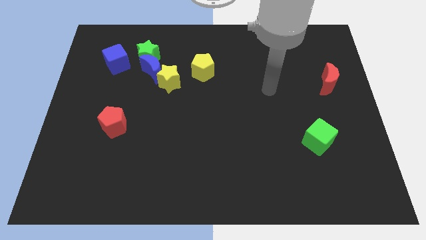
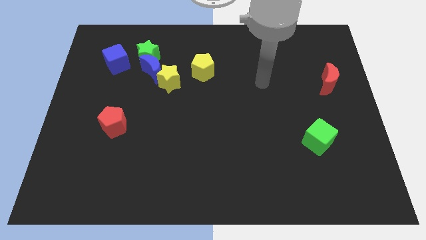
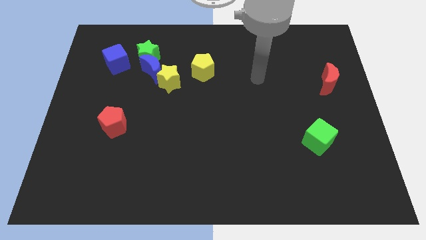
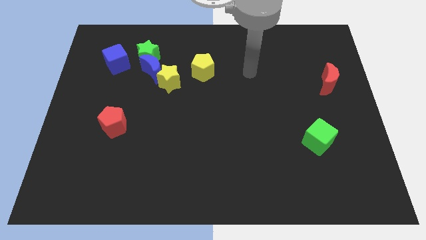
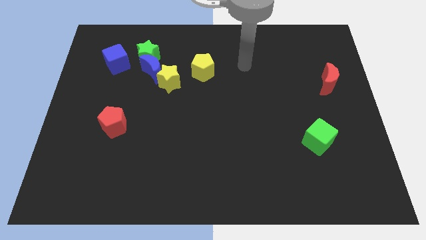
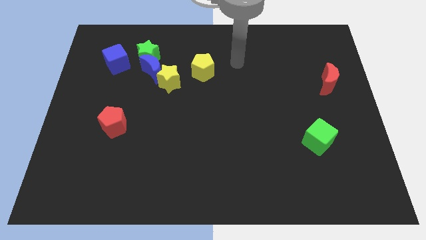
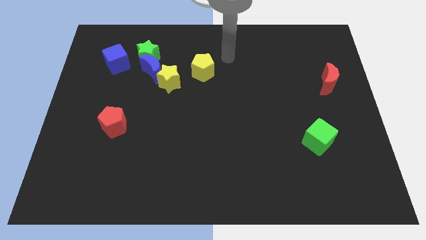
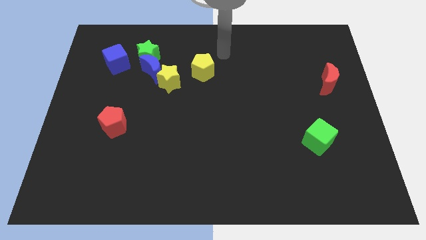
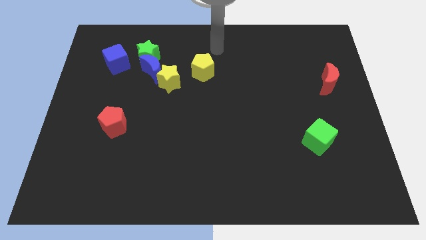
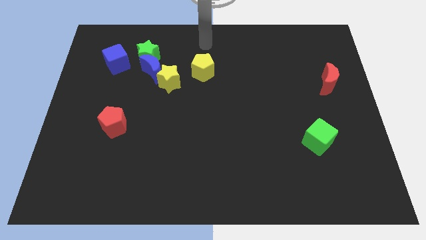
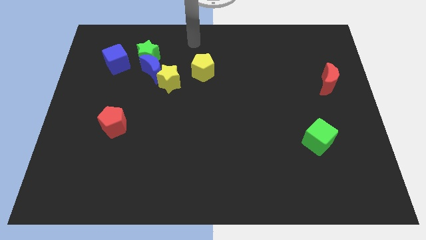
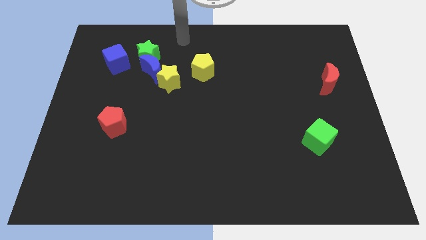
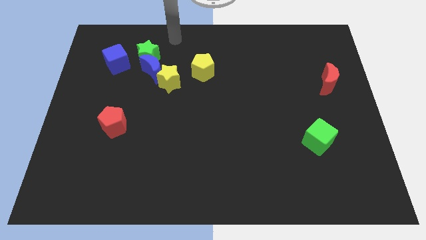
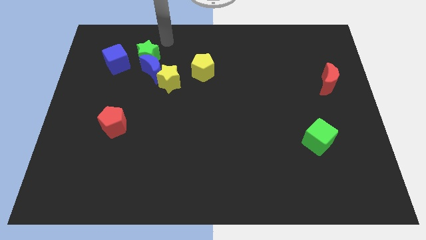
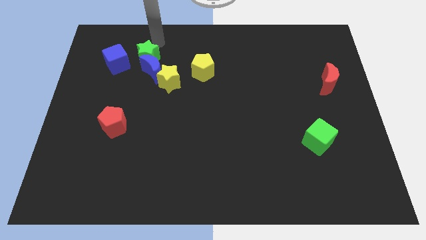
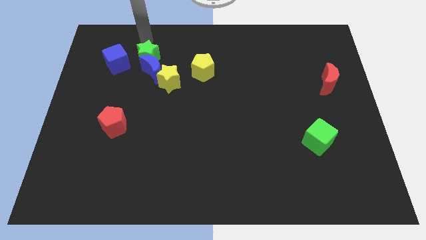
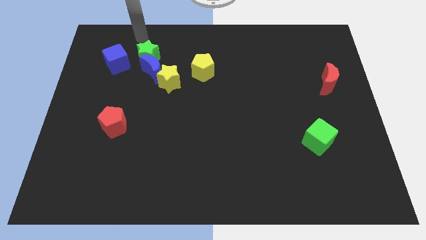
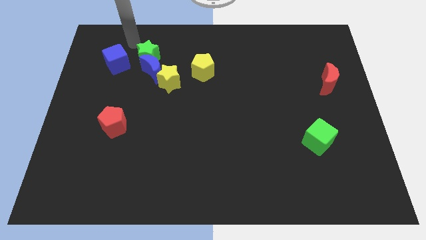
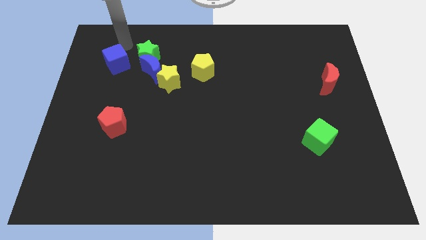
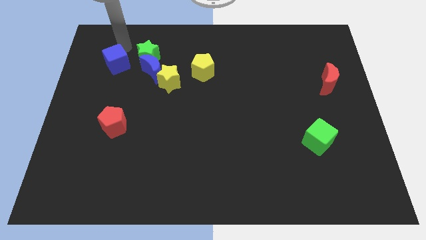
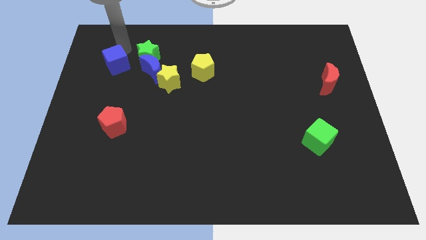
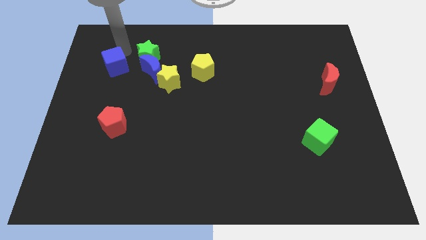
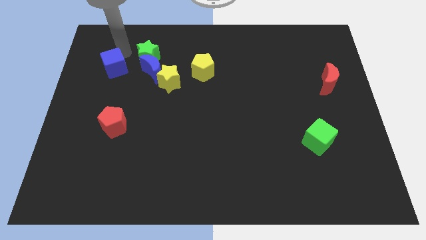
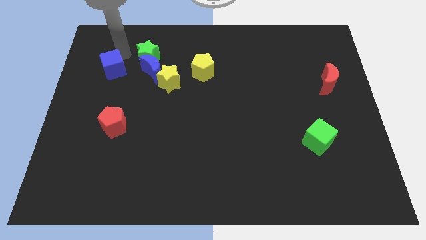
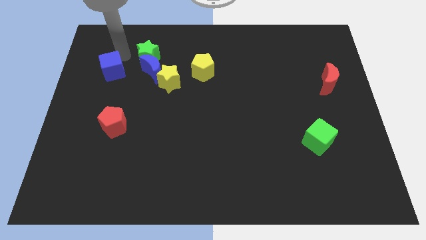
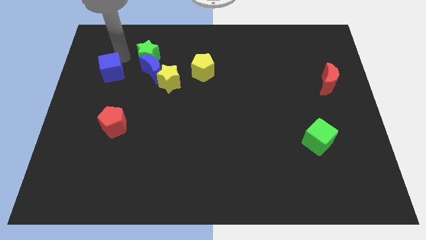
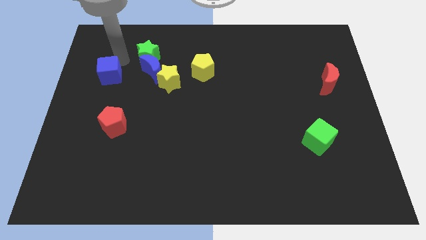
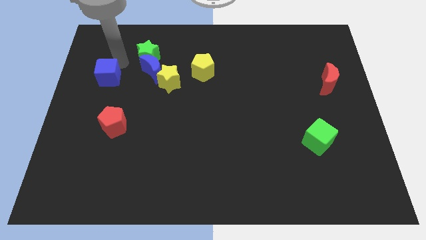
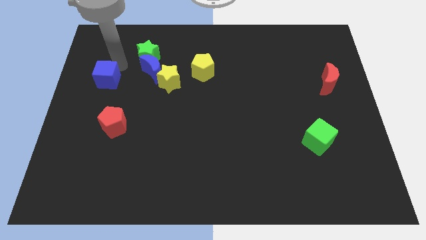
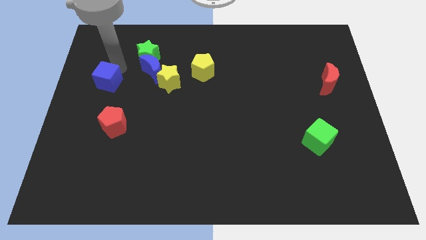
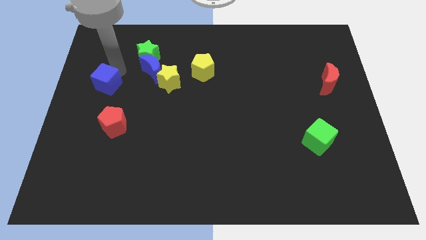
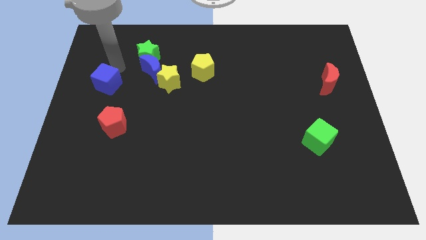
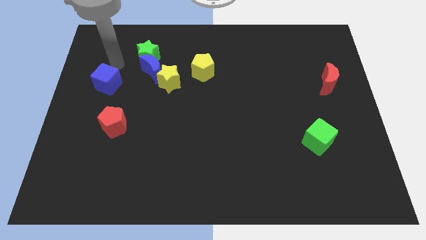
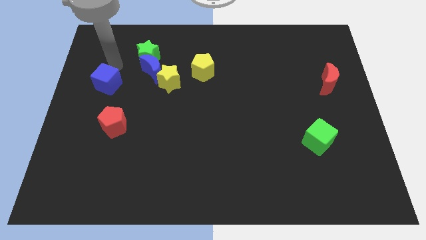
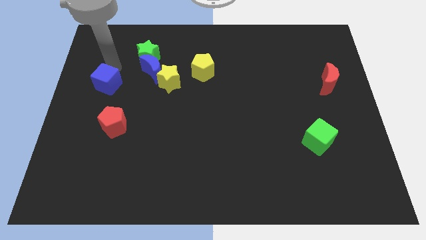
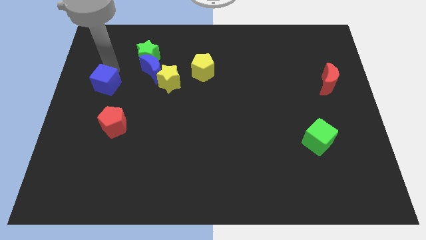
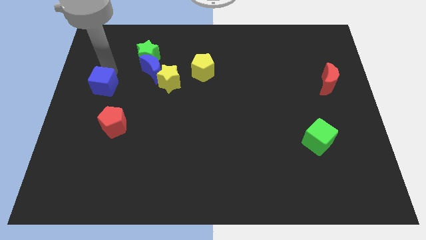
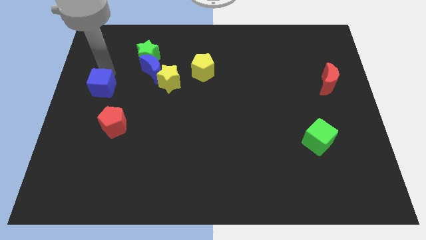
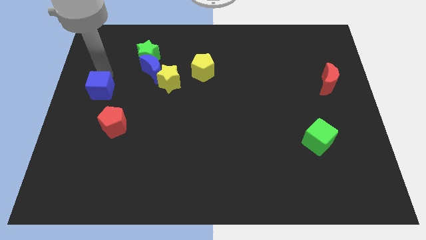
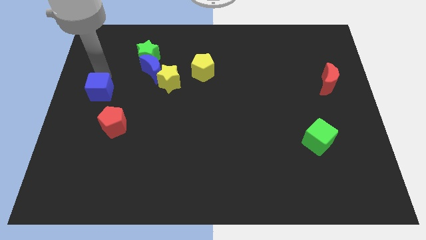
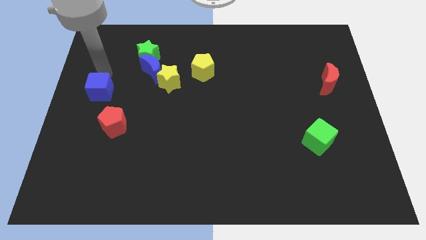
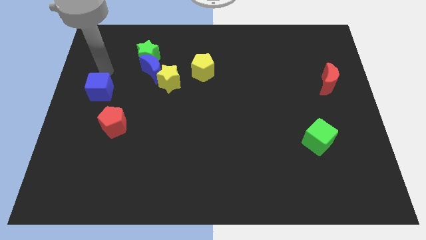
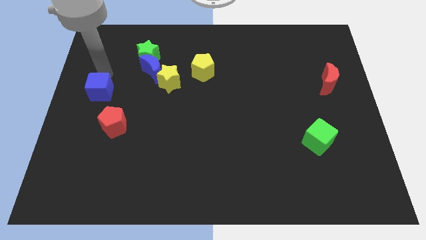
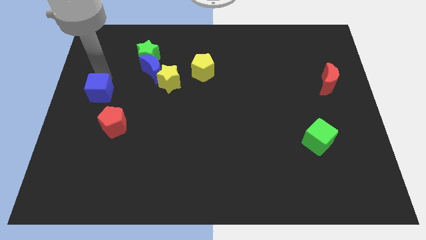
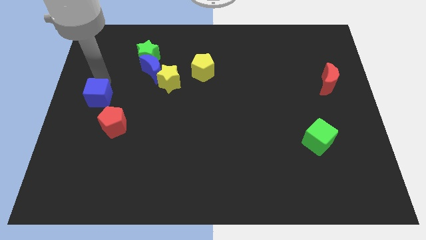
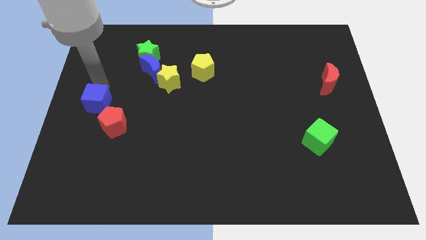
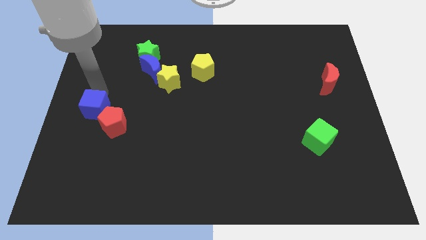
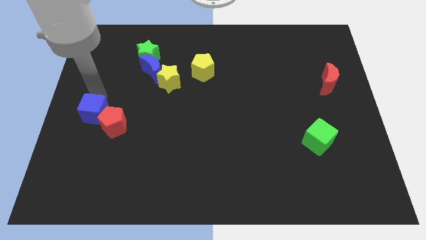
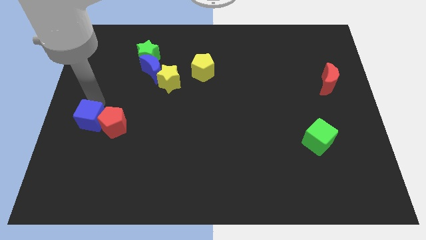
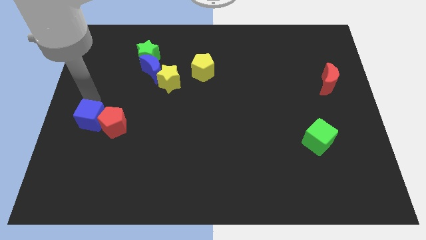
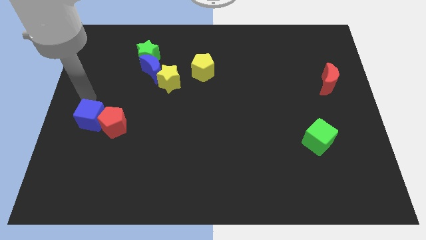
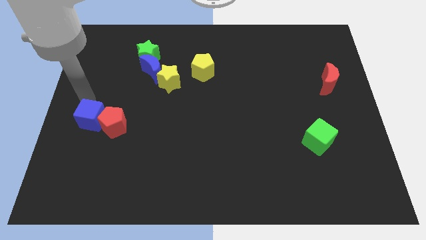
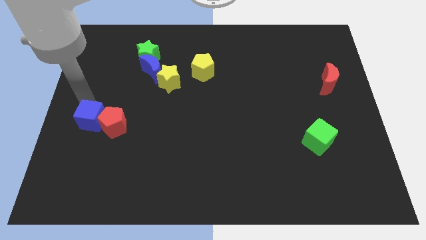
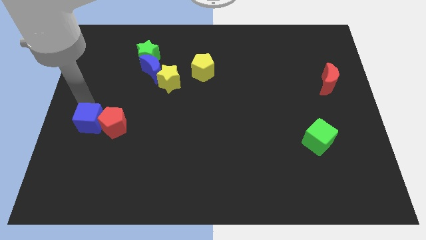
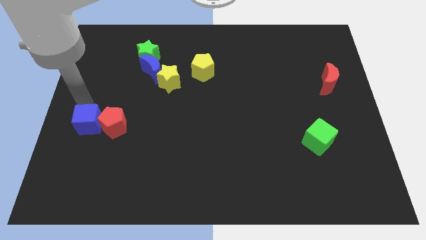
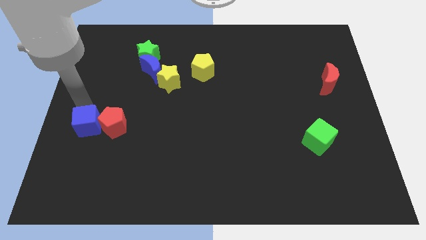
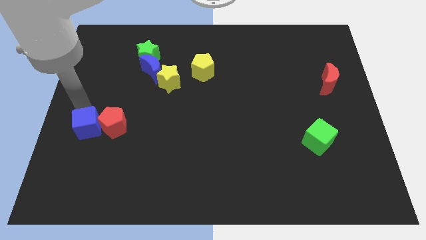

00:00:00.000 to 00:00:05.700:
slide the blue cube downwards

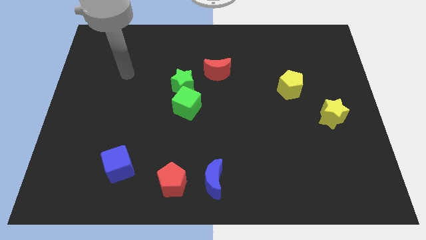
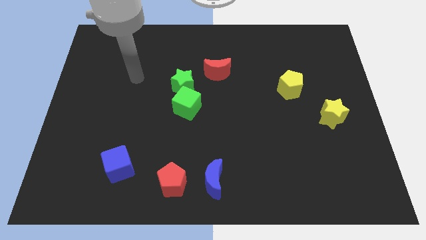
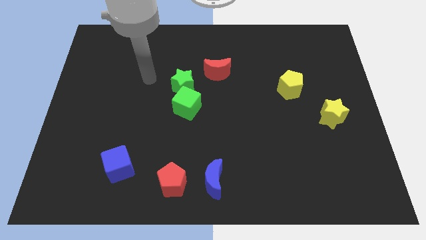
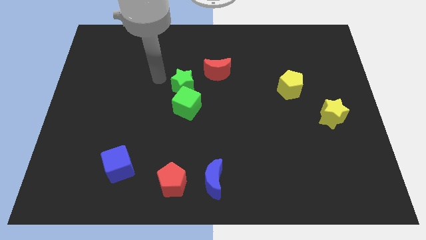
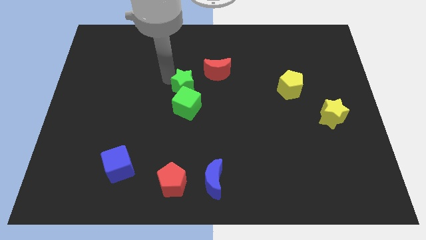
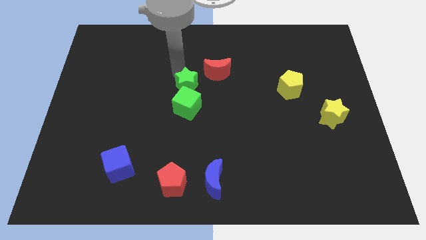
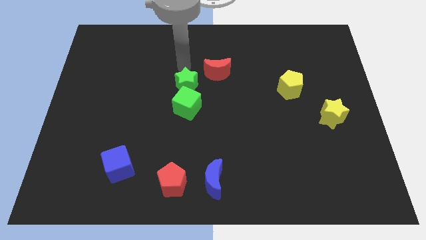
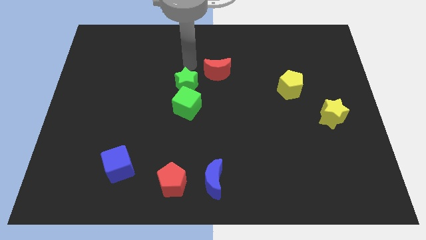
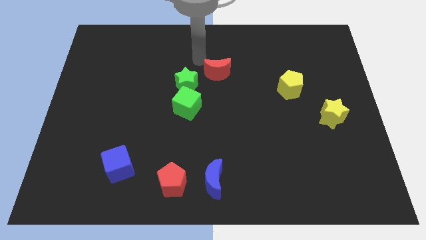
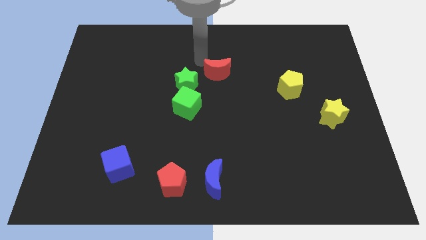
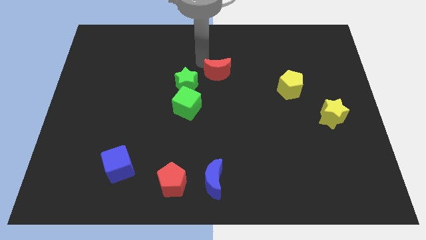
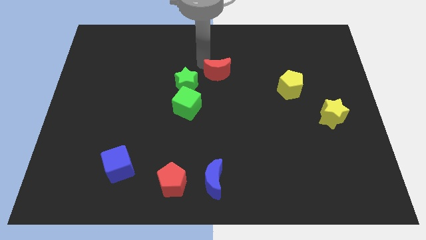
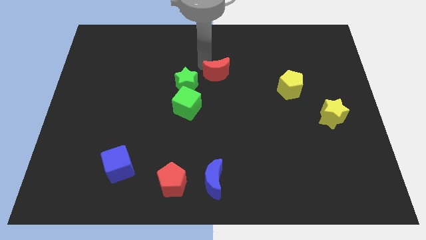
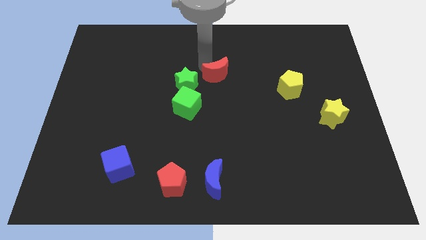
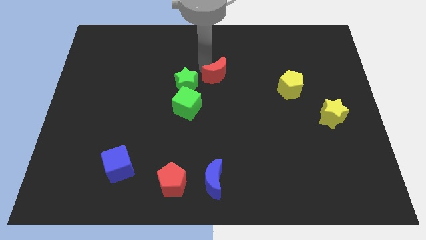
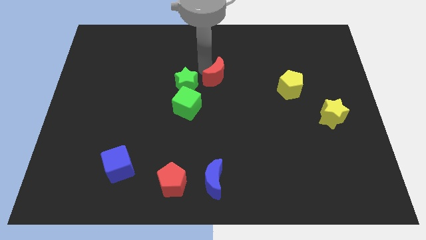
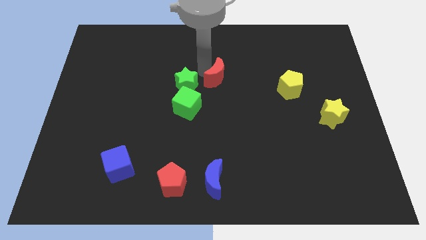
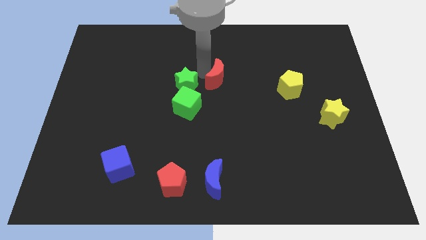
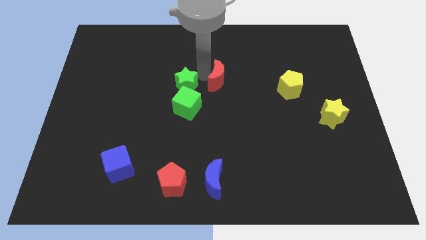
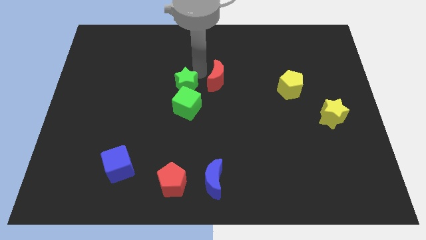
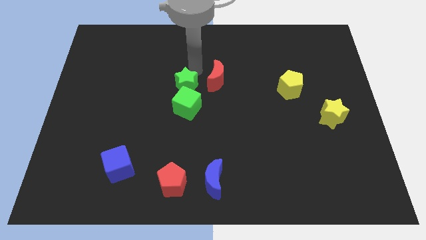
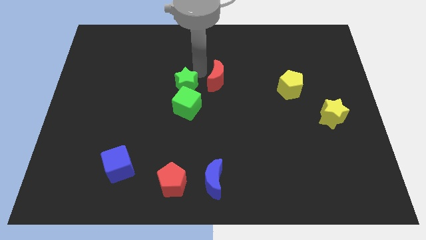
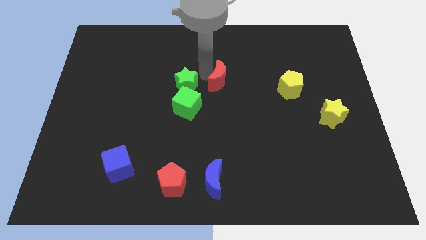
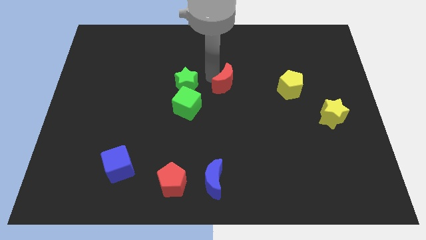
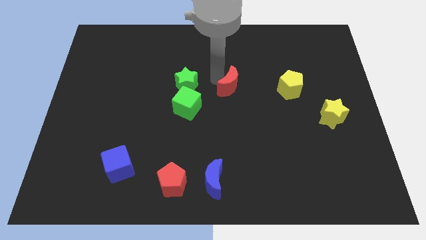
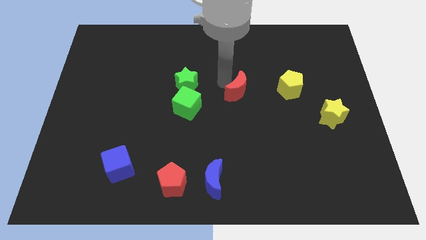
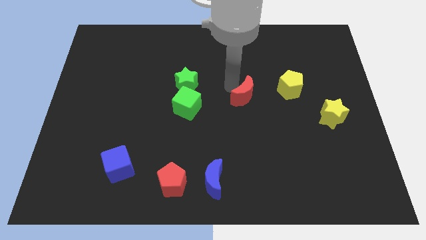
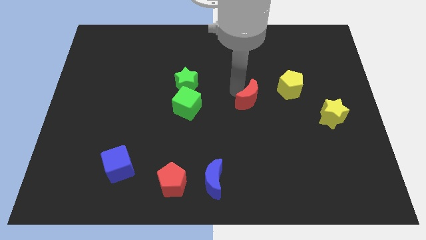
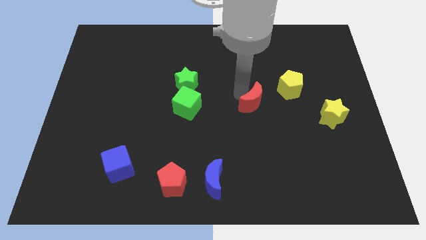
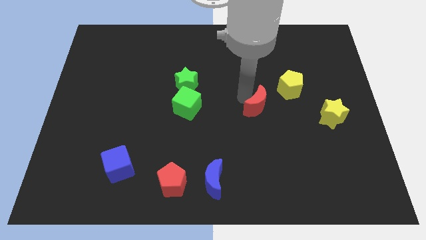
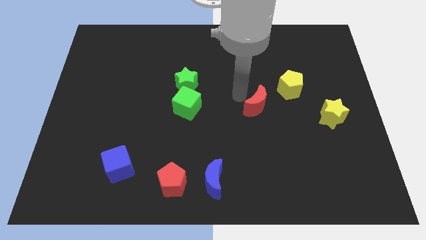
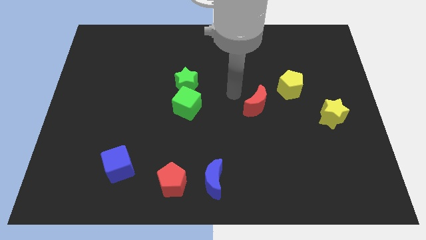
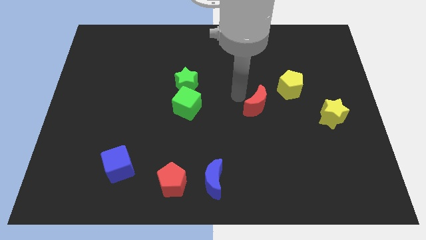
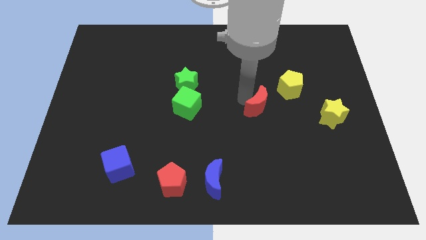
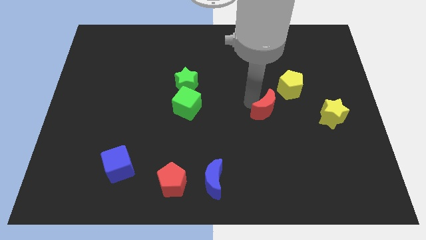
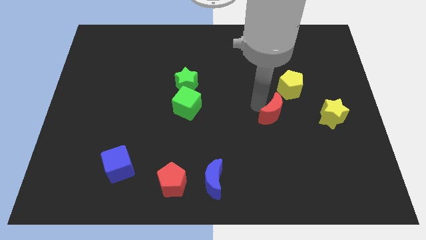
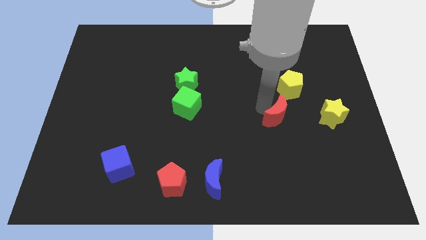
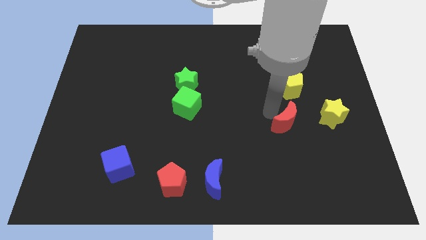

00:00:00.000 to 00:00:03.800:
slide the red moon down and to the right diagonally
